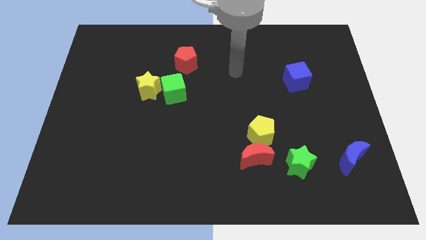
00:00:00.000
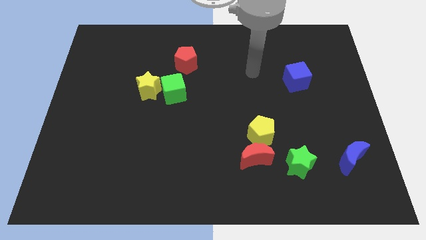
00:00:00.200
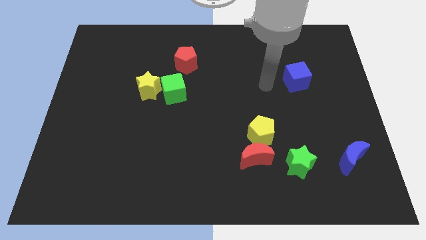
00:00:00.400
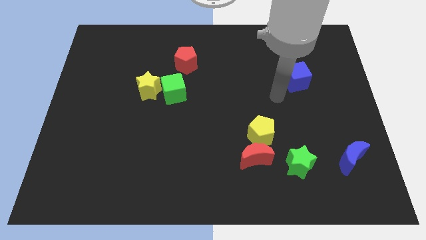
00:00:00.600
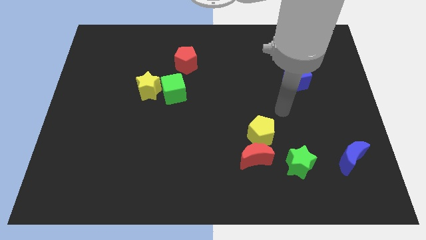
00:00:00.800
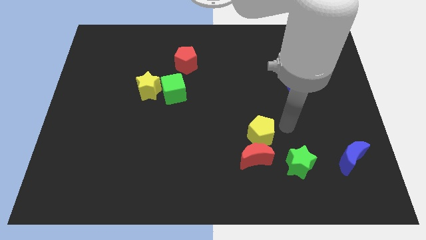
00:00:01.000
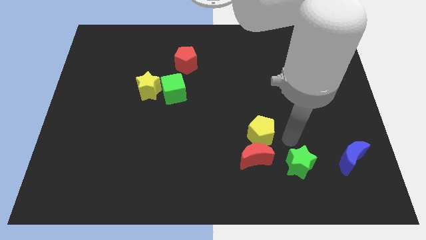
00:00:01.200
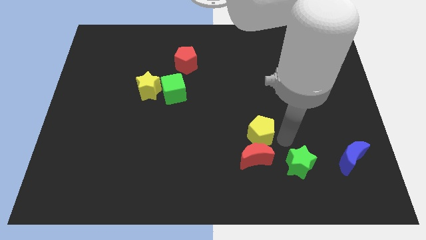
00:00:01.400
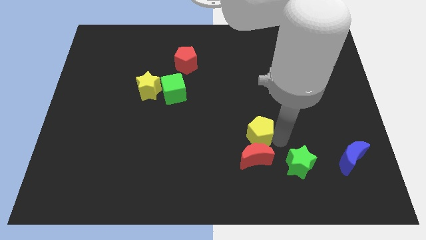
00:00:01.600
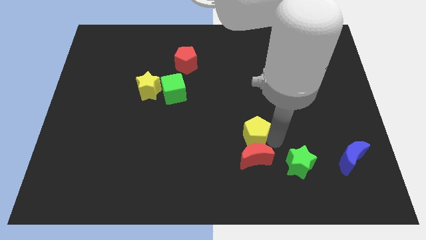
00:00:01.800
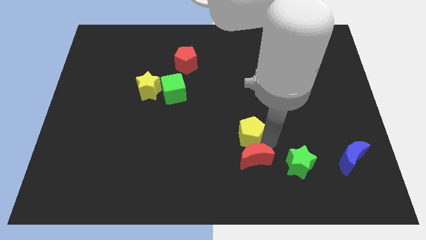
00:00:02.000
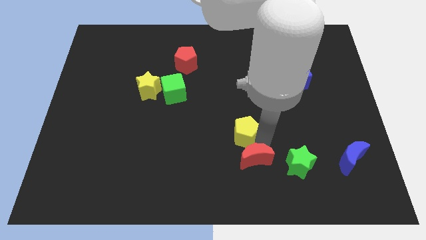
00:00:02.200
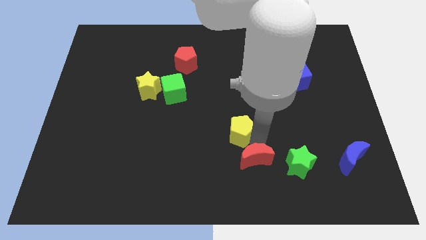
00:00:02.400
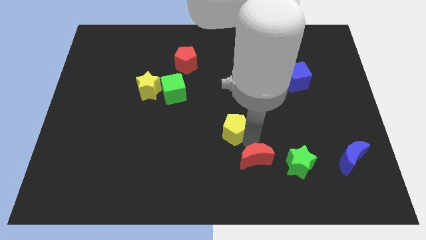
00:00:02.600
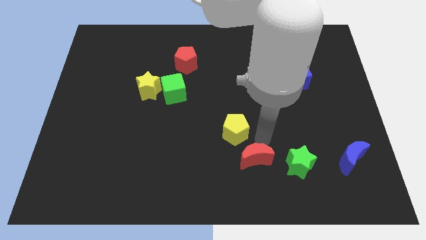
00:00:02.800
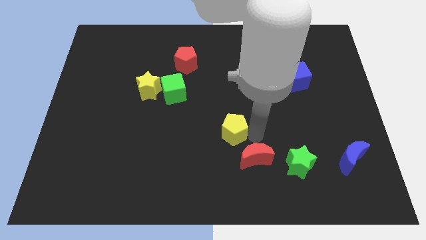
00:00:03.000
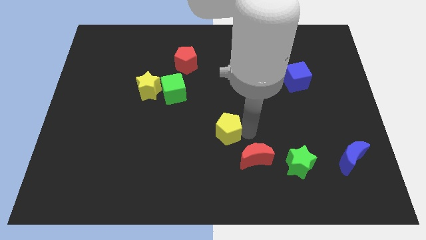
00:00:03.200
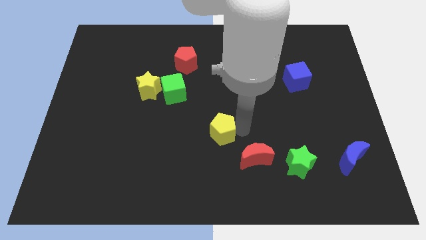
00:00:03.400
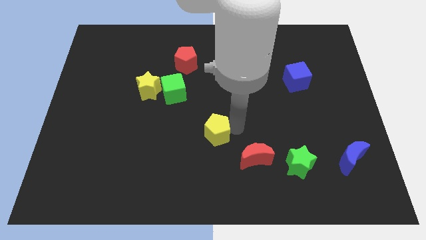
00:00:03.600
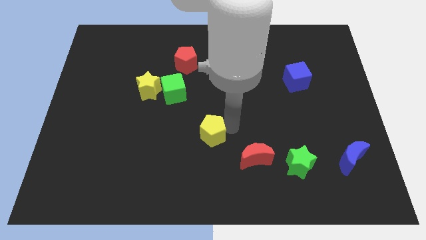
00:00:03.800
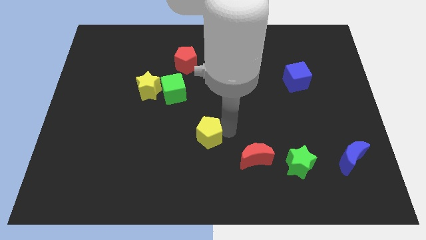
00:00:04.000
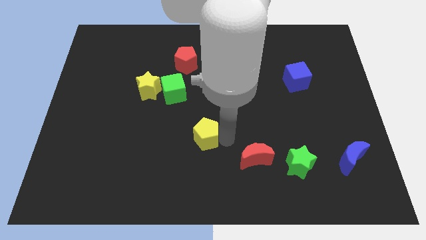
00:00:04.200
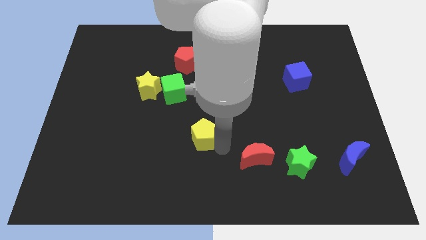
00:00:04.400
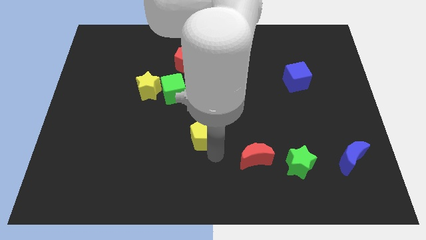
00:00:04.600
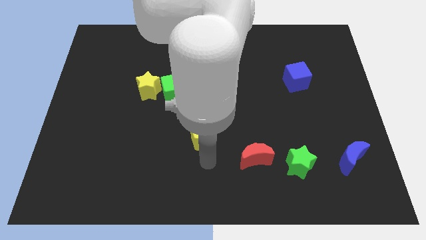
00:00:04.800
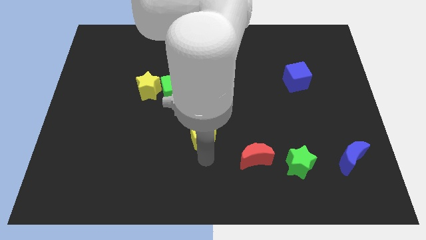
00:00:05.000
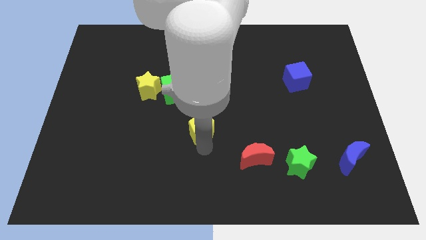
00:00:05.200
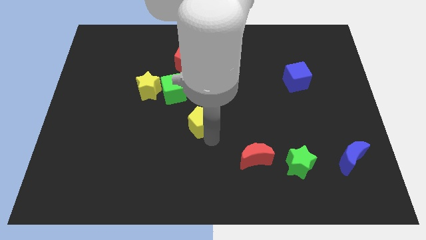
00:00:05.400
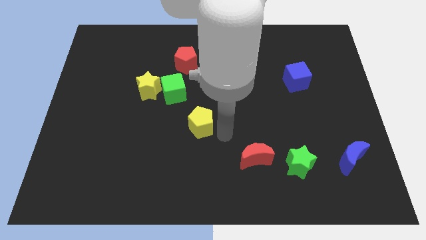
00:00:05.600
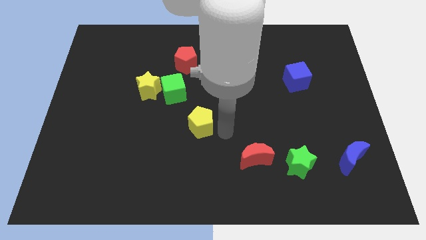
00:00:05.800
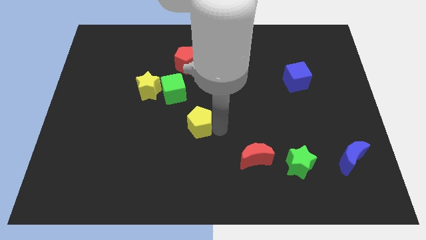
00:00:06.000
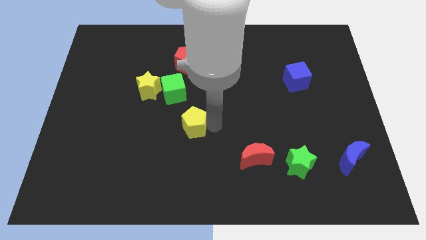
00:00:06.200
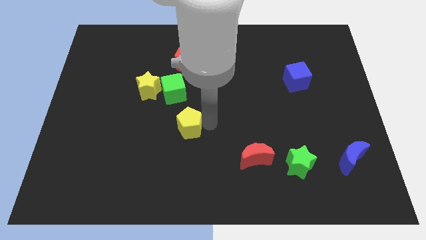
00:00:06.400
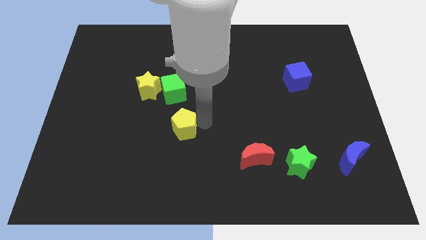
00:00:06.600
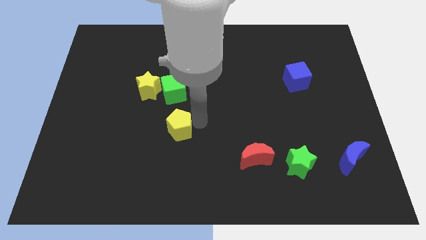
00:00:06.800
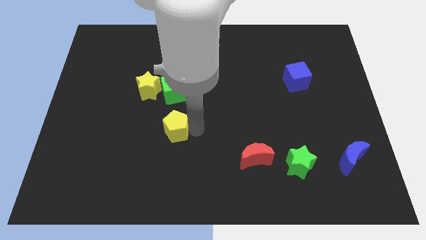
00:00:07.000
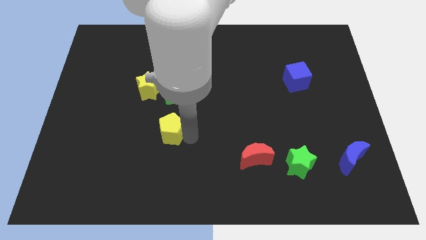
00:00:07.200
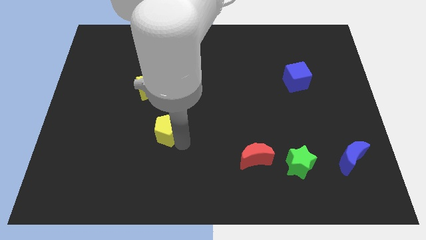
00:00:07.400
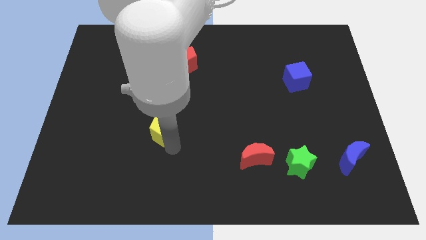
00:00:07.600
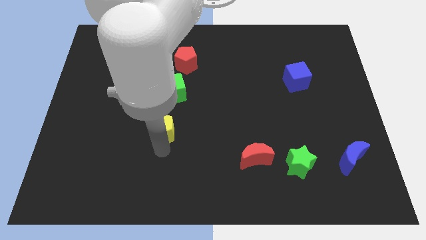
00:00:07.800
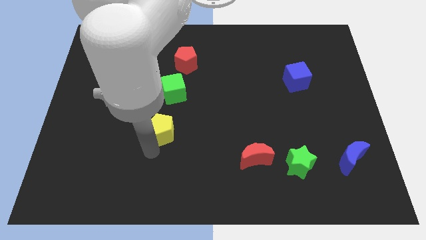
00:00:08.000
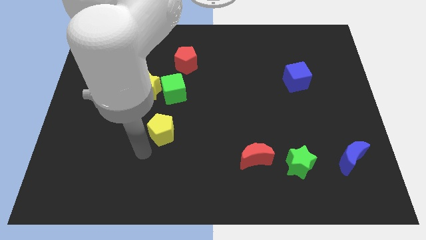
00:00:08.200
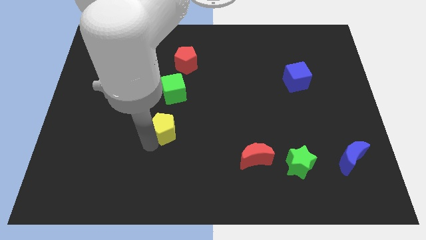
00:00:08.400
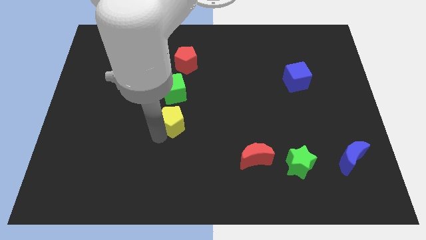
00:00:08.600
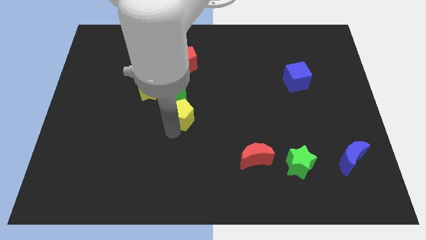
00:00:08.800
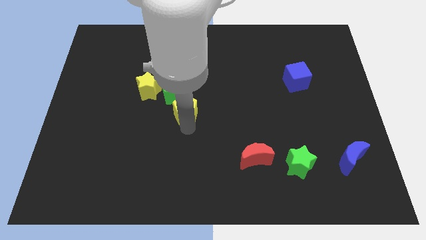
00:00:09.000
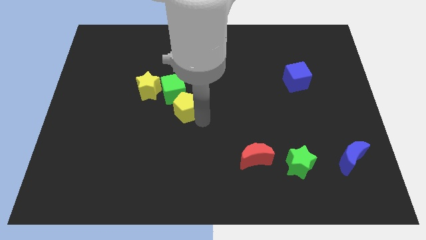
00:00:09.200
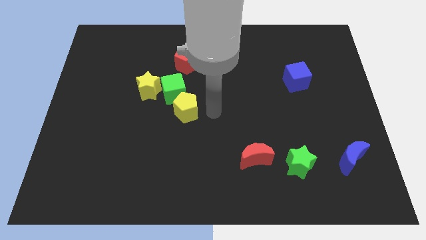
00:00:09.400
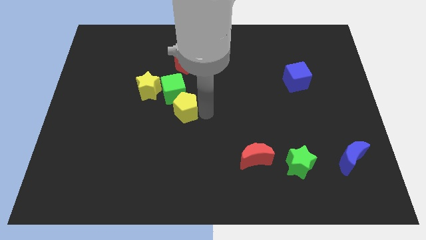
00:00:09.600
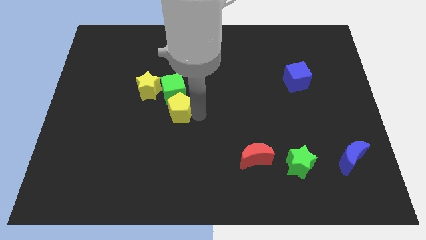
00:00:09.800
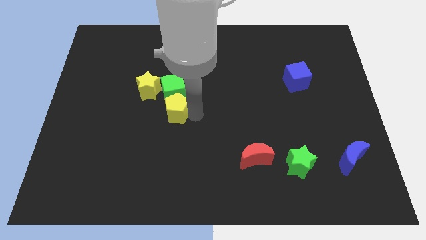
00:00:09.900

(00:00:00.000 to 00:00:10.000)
put the yellow pentagon diagonally down and to the left of the green cube

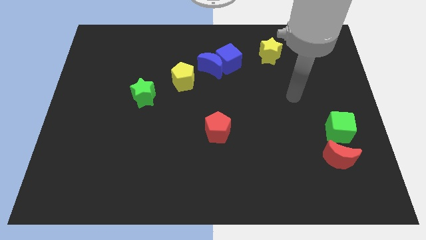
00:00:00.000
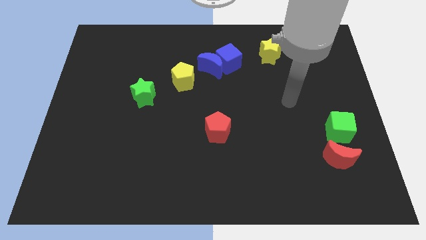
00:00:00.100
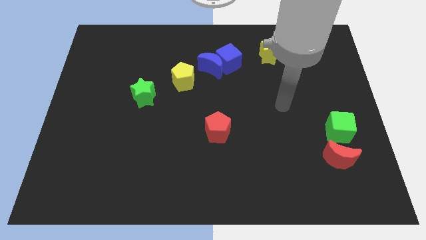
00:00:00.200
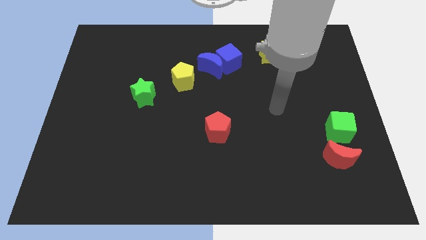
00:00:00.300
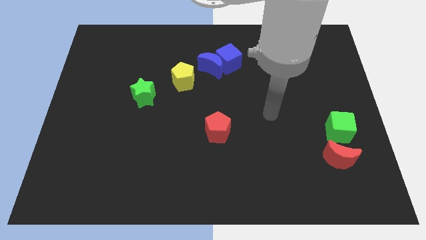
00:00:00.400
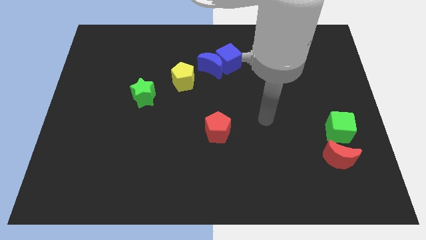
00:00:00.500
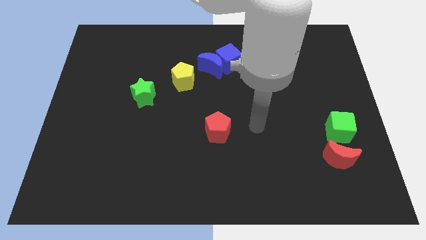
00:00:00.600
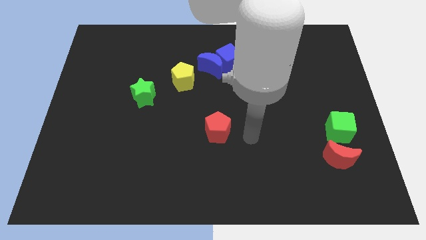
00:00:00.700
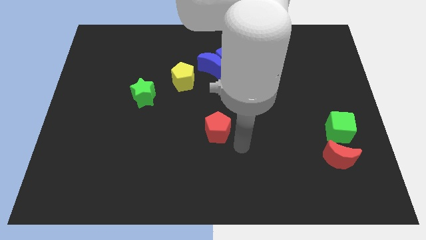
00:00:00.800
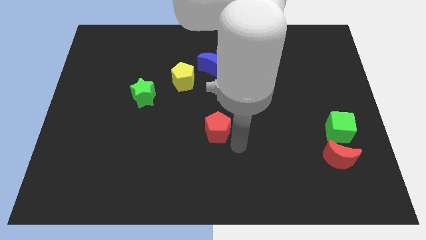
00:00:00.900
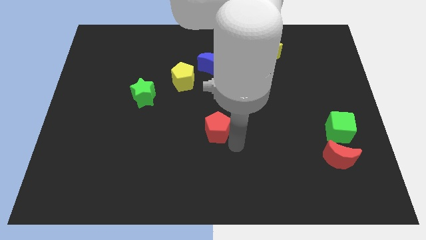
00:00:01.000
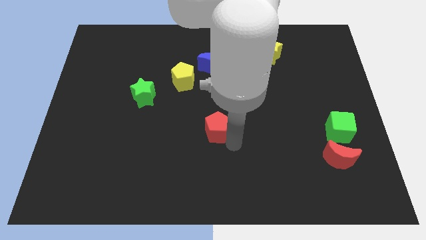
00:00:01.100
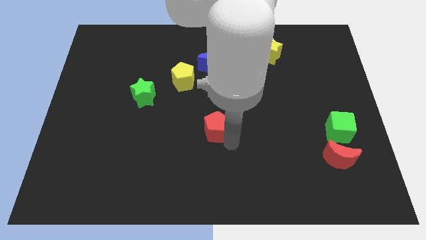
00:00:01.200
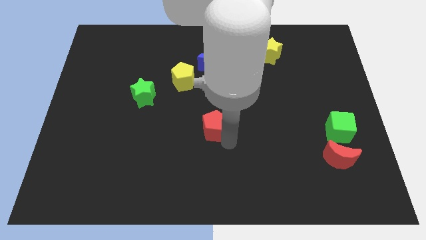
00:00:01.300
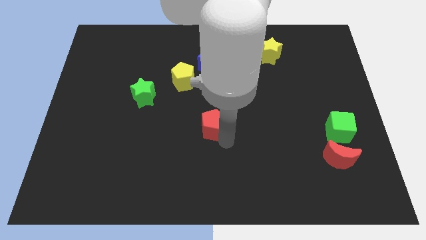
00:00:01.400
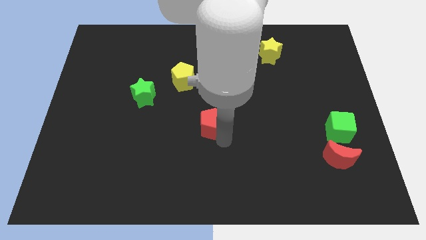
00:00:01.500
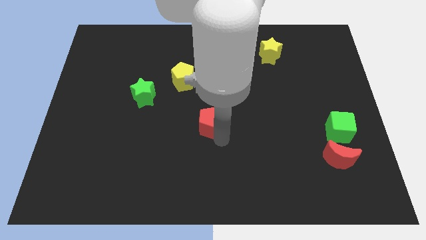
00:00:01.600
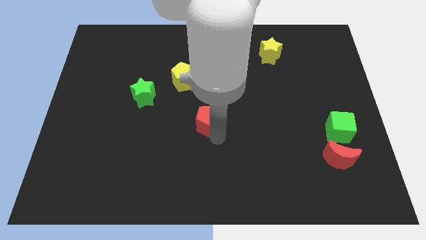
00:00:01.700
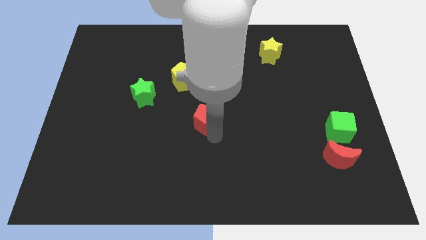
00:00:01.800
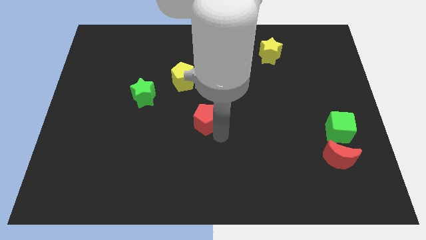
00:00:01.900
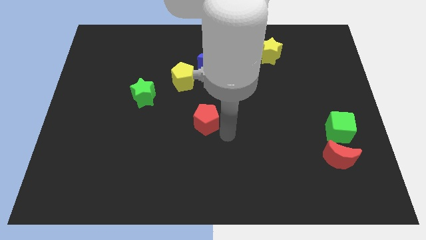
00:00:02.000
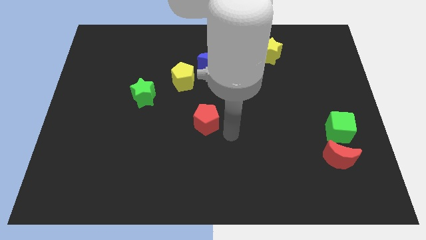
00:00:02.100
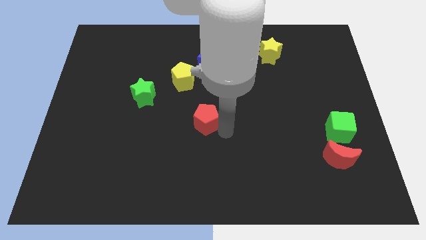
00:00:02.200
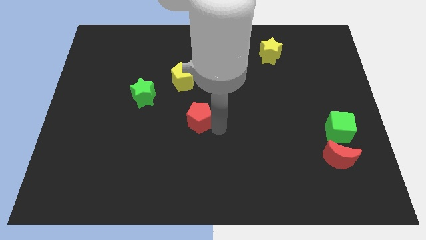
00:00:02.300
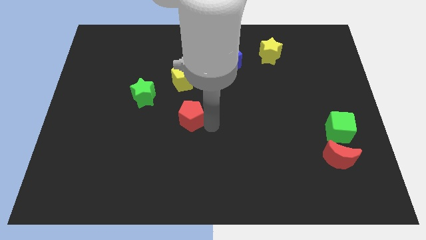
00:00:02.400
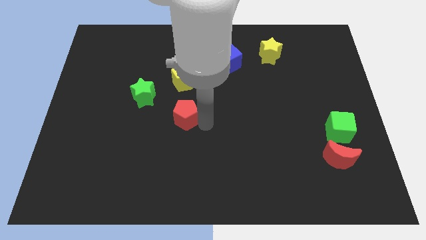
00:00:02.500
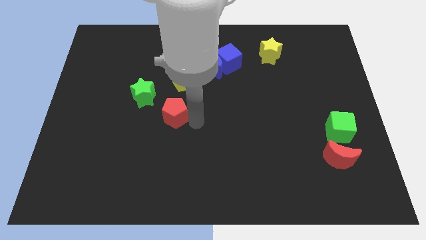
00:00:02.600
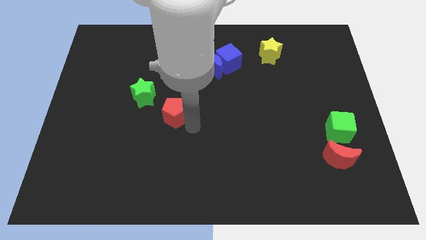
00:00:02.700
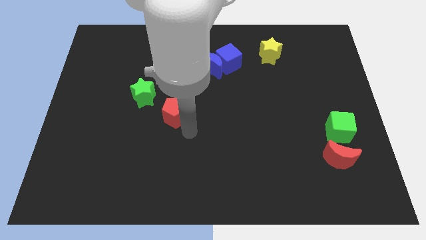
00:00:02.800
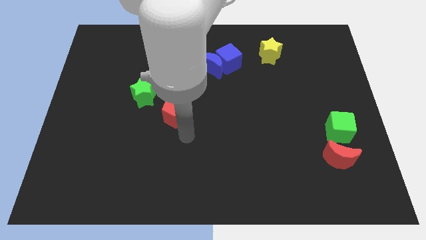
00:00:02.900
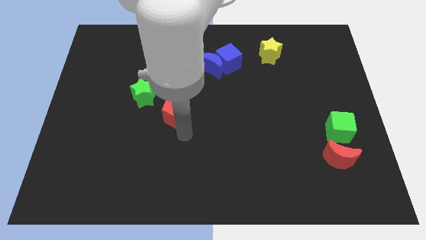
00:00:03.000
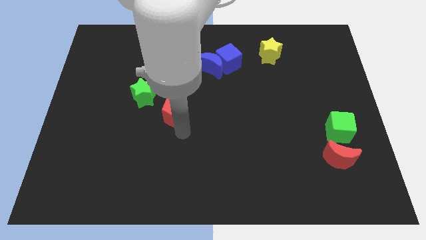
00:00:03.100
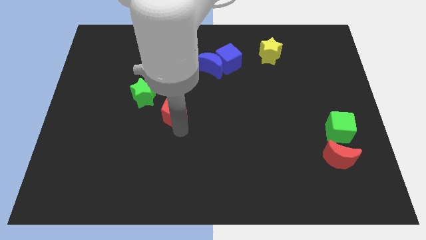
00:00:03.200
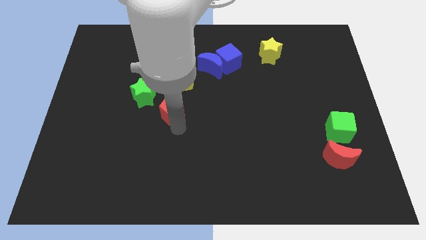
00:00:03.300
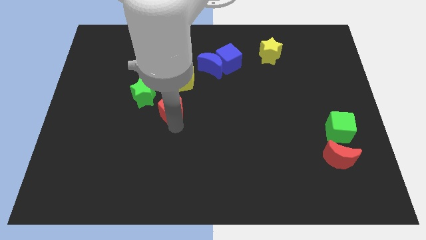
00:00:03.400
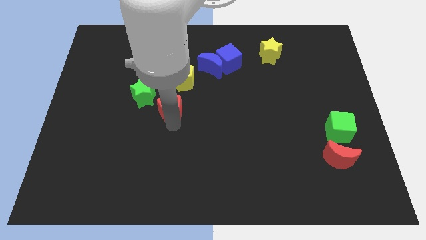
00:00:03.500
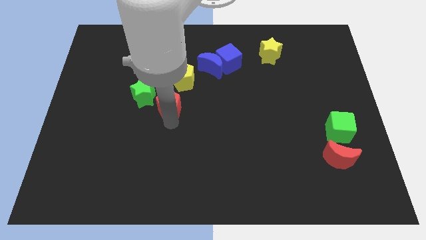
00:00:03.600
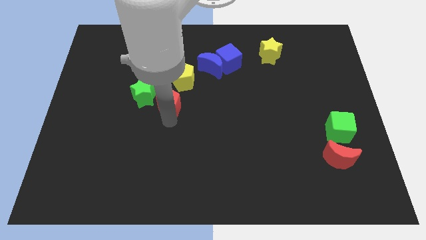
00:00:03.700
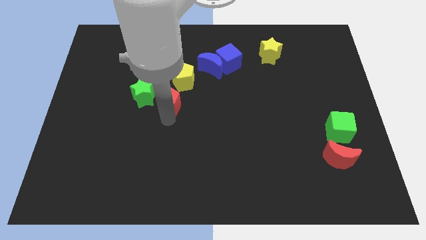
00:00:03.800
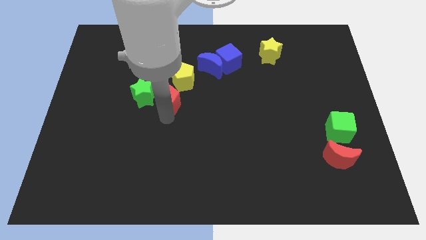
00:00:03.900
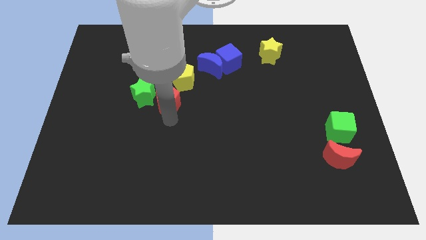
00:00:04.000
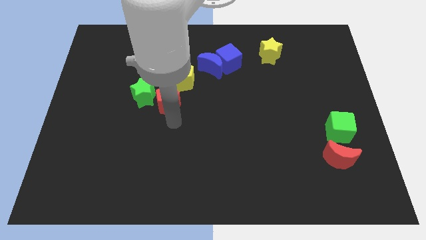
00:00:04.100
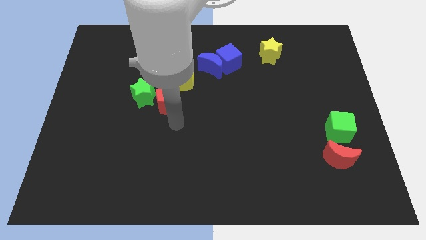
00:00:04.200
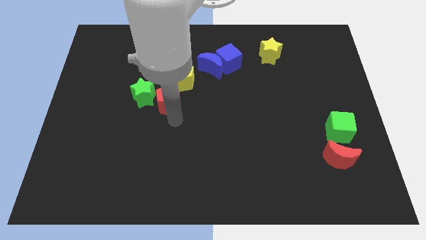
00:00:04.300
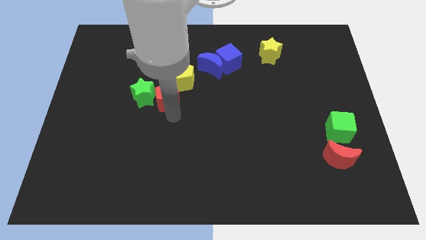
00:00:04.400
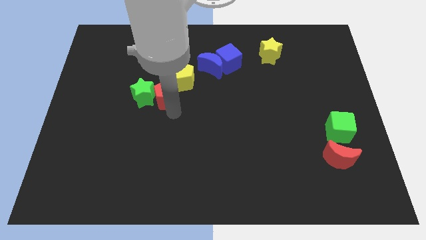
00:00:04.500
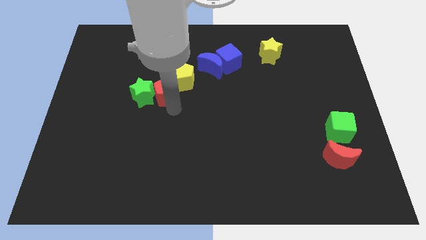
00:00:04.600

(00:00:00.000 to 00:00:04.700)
move the red pentagon to the left of the yellow pentagon
